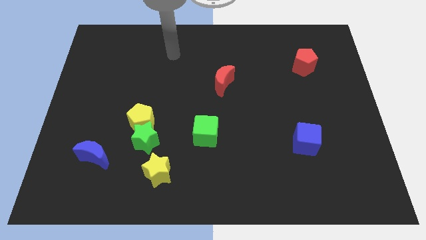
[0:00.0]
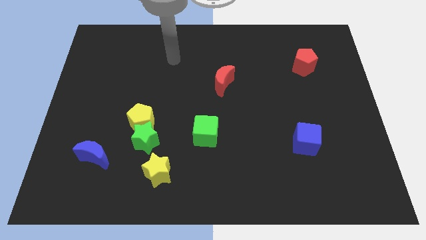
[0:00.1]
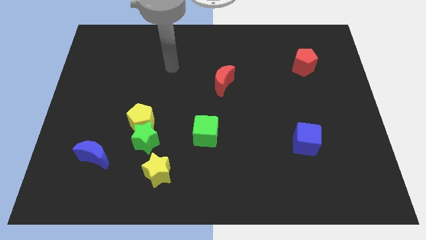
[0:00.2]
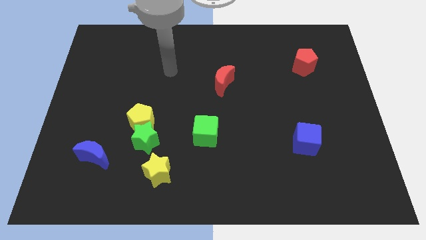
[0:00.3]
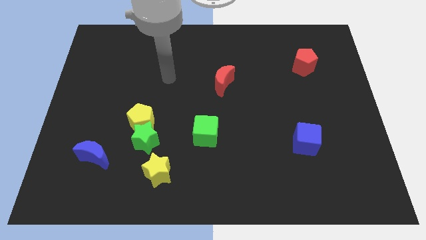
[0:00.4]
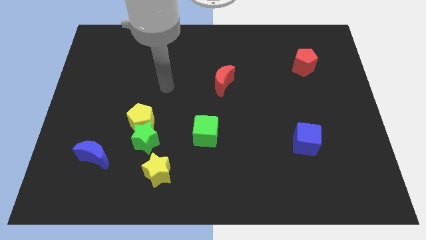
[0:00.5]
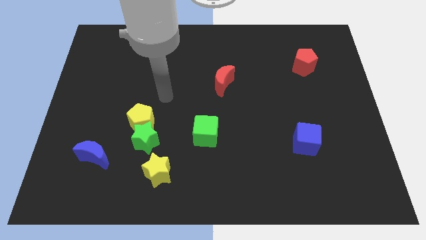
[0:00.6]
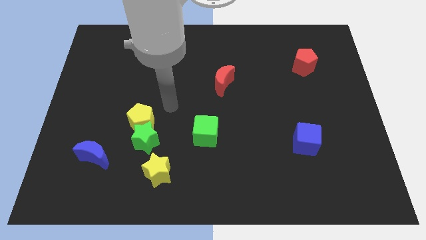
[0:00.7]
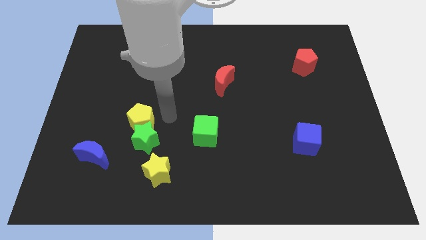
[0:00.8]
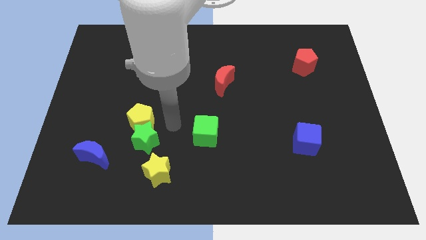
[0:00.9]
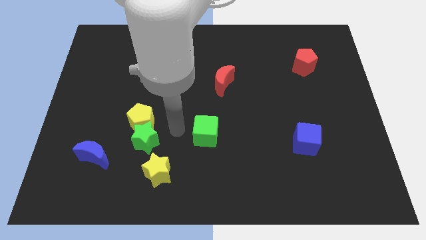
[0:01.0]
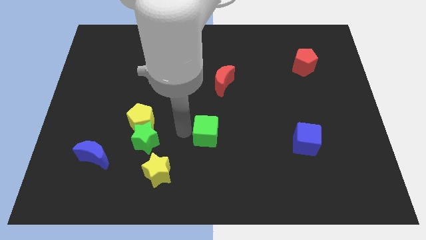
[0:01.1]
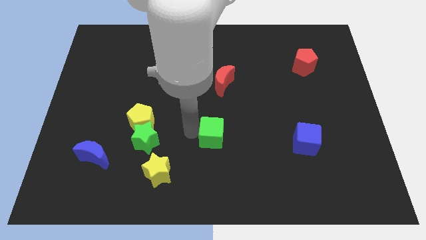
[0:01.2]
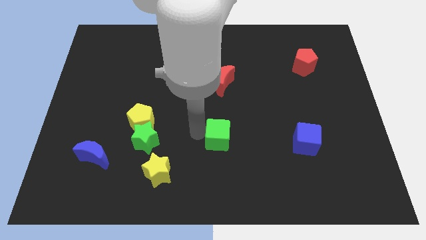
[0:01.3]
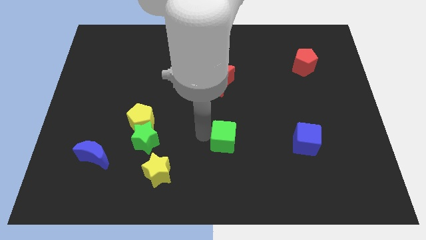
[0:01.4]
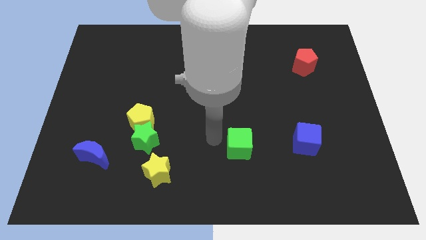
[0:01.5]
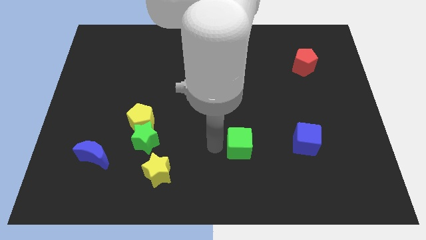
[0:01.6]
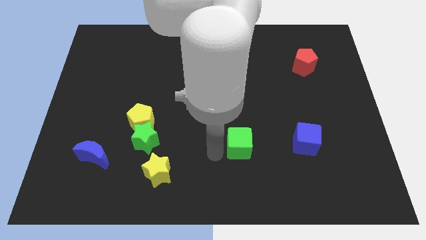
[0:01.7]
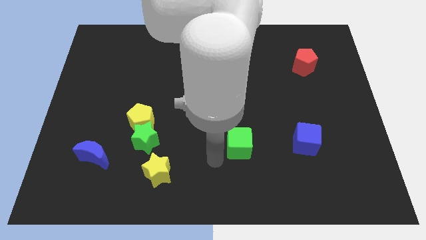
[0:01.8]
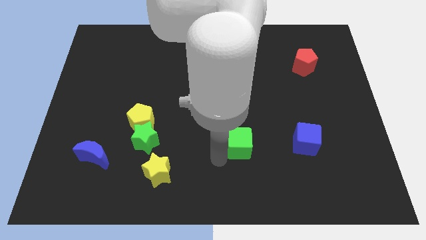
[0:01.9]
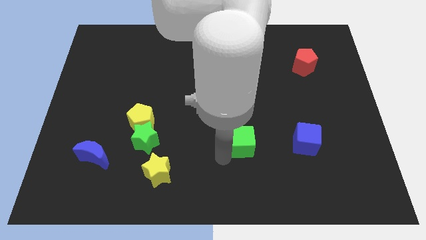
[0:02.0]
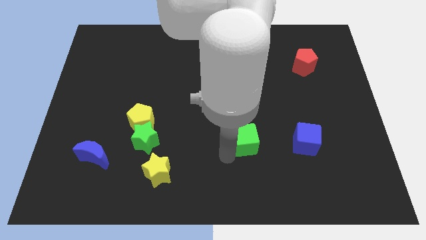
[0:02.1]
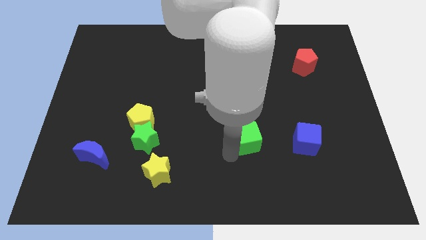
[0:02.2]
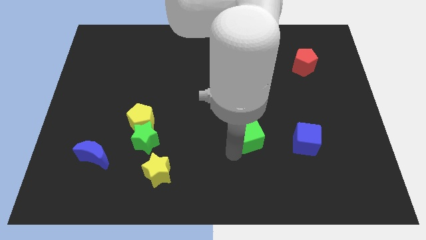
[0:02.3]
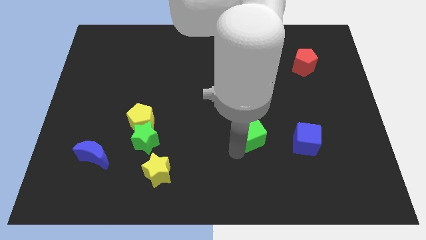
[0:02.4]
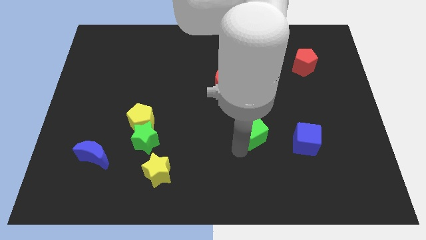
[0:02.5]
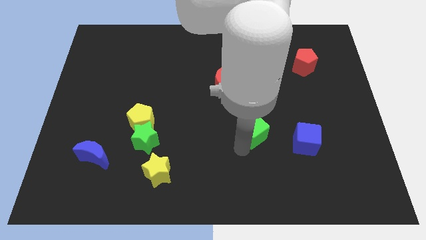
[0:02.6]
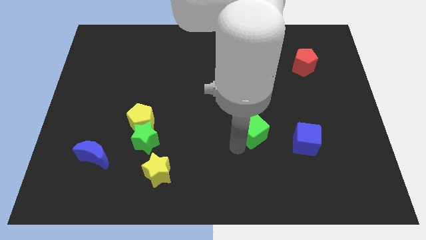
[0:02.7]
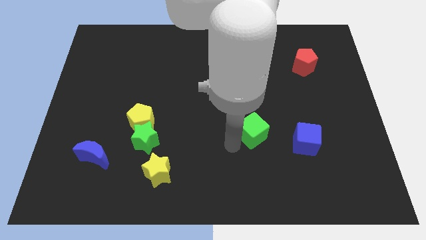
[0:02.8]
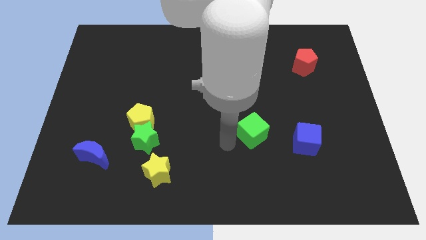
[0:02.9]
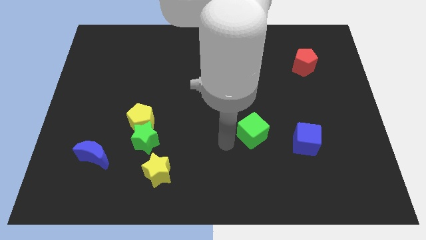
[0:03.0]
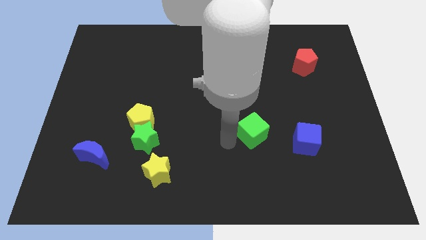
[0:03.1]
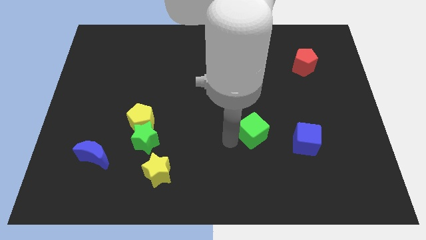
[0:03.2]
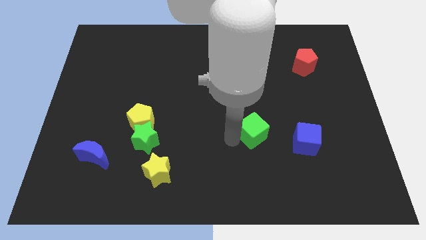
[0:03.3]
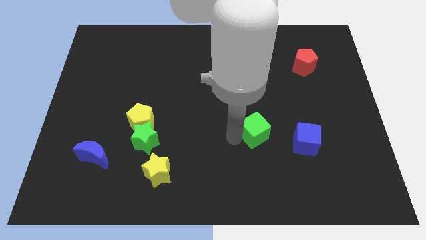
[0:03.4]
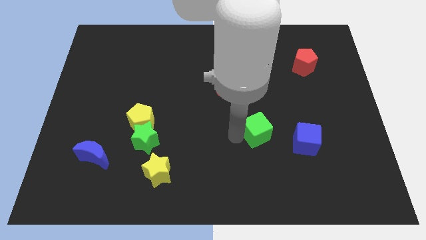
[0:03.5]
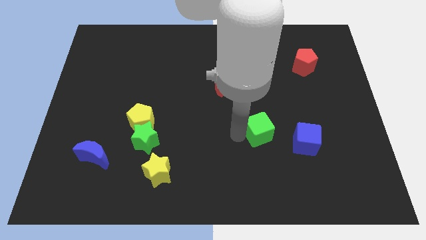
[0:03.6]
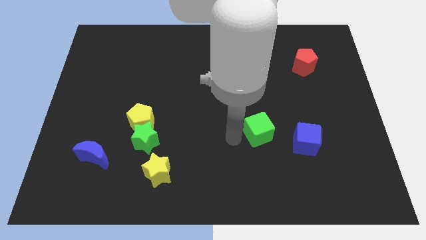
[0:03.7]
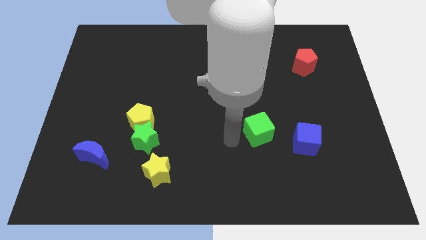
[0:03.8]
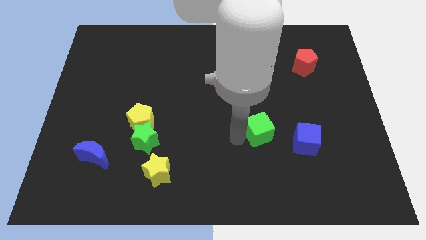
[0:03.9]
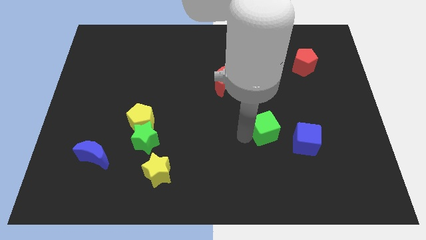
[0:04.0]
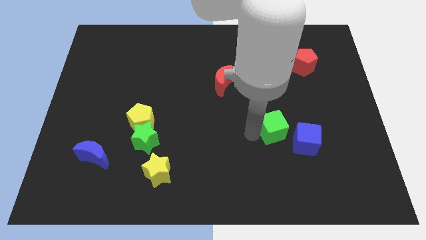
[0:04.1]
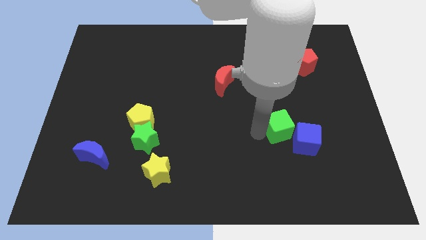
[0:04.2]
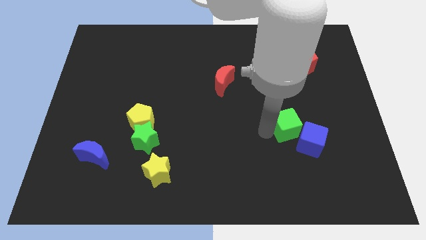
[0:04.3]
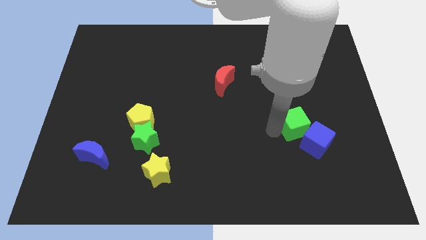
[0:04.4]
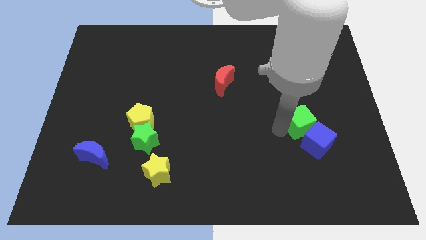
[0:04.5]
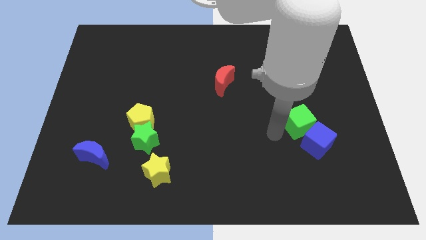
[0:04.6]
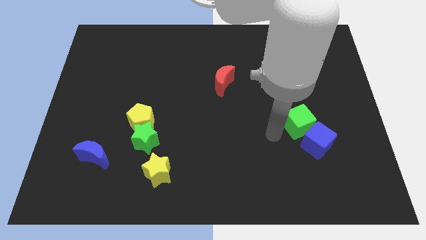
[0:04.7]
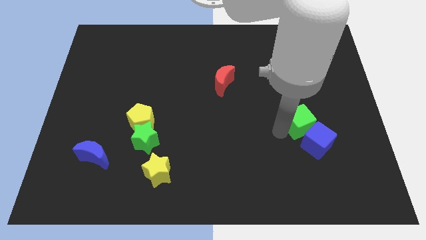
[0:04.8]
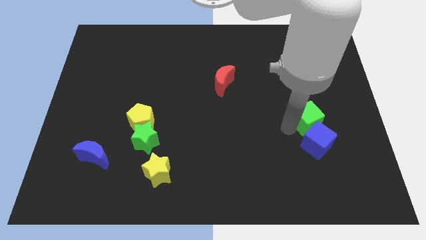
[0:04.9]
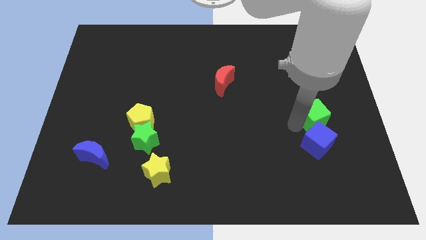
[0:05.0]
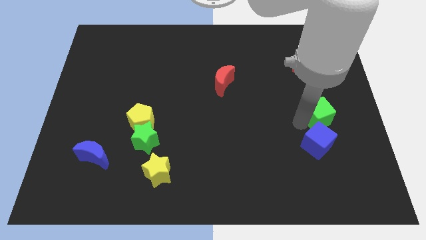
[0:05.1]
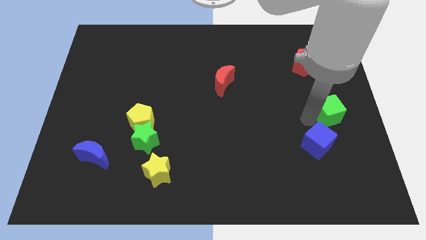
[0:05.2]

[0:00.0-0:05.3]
move the green cube to the right side of the board

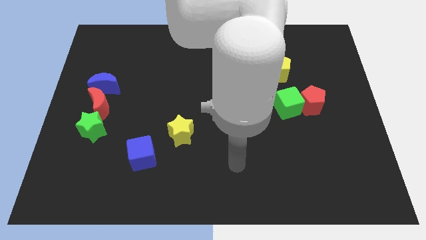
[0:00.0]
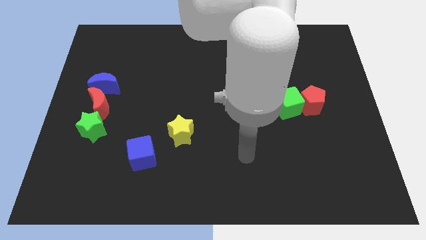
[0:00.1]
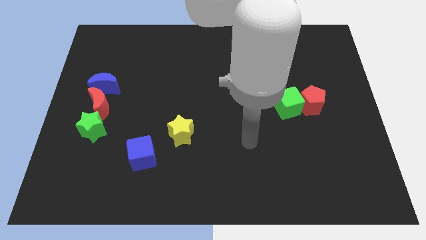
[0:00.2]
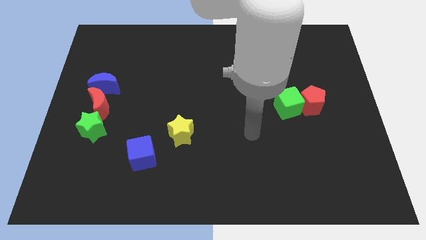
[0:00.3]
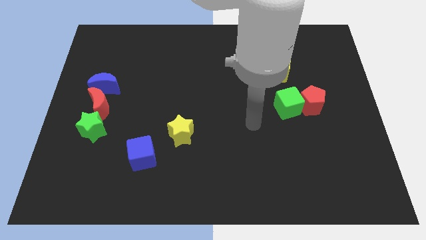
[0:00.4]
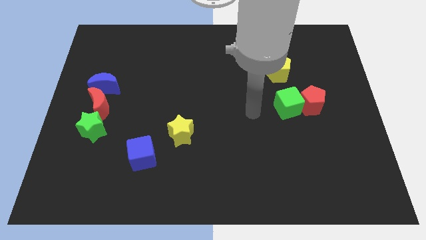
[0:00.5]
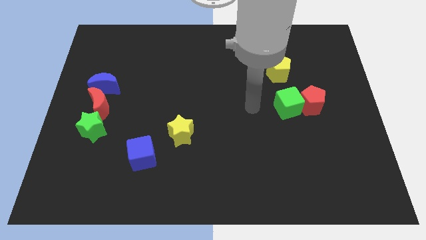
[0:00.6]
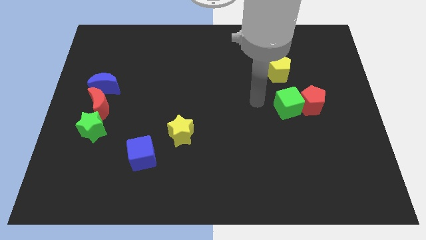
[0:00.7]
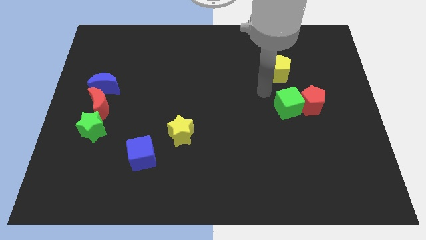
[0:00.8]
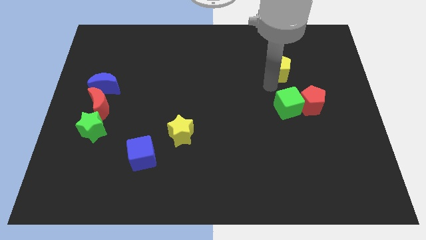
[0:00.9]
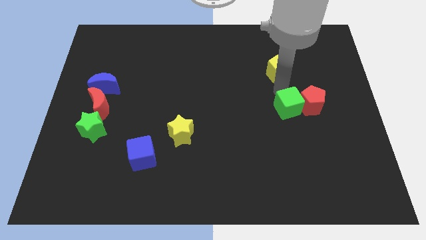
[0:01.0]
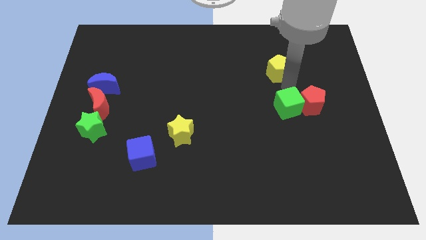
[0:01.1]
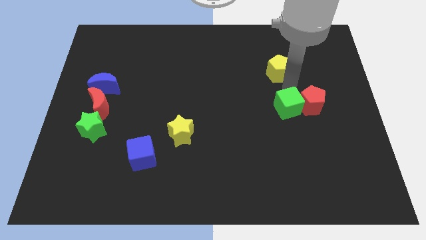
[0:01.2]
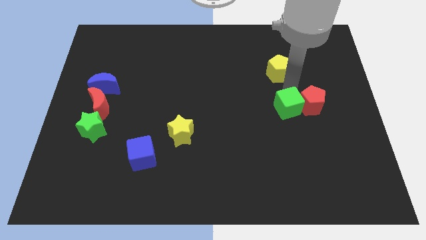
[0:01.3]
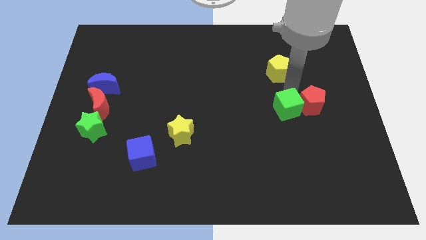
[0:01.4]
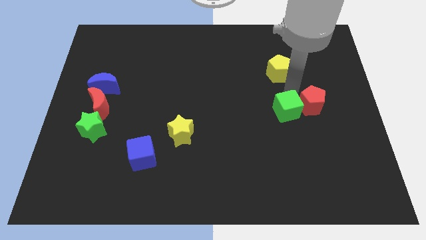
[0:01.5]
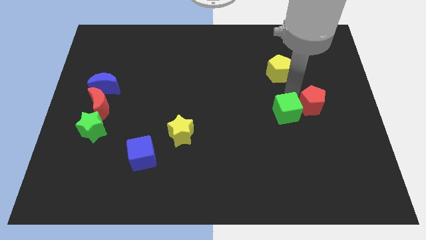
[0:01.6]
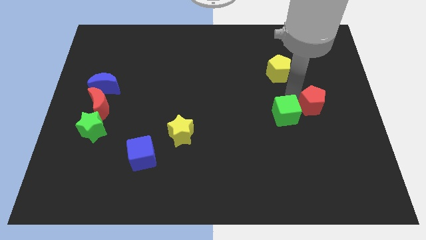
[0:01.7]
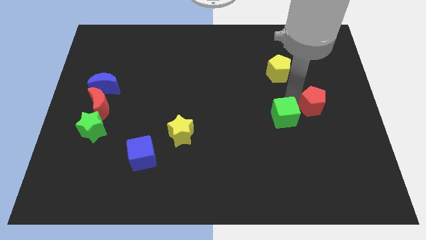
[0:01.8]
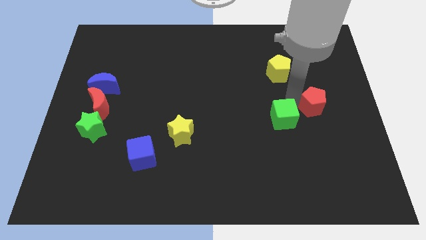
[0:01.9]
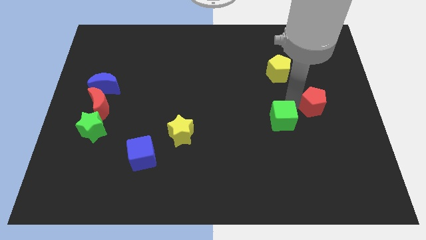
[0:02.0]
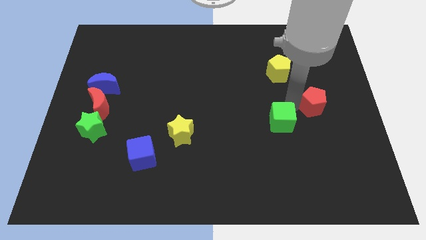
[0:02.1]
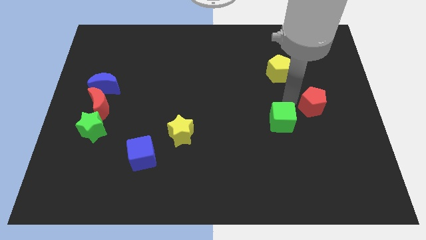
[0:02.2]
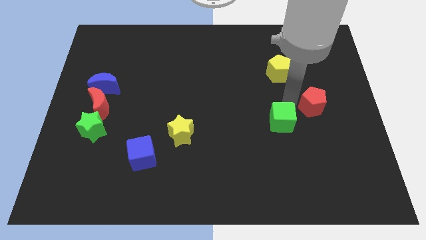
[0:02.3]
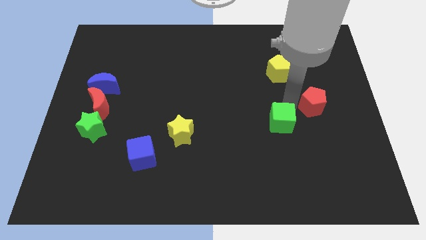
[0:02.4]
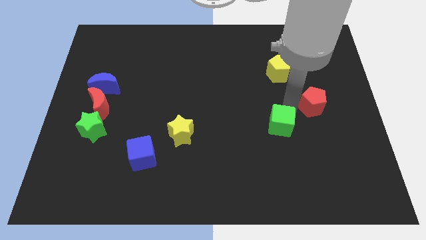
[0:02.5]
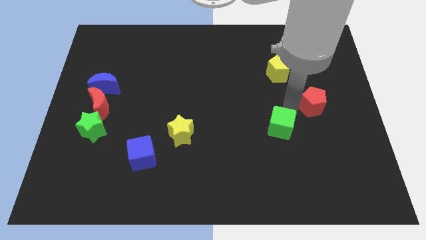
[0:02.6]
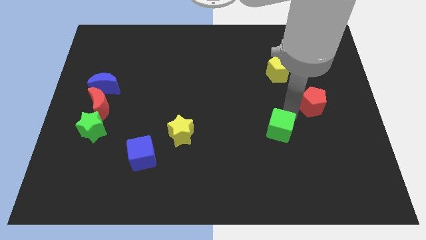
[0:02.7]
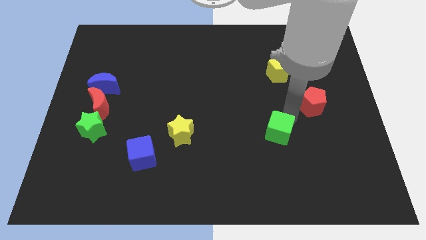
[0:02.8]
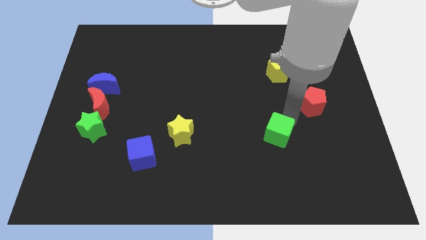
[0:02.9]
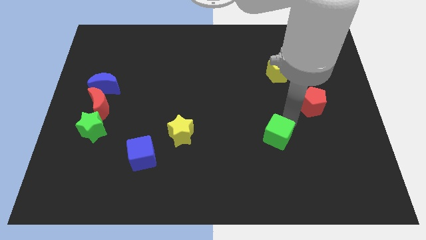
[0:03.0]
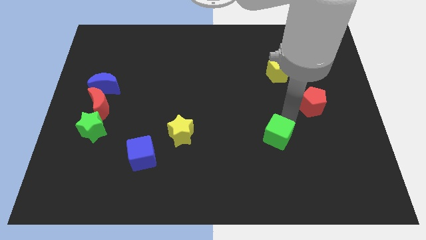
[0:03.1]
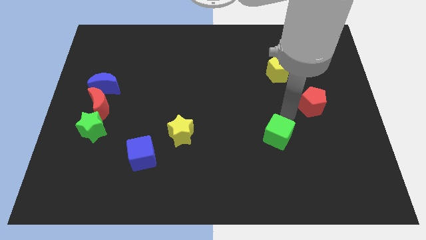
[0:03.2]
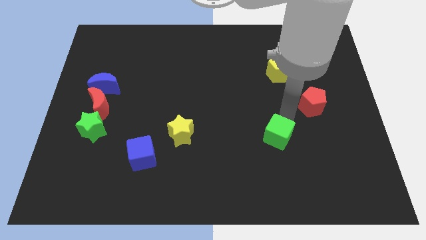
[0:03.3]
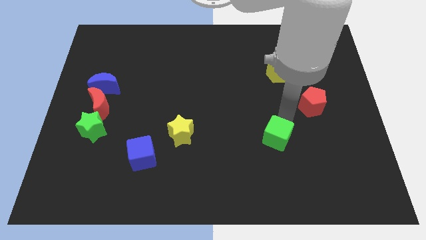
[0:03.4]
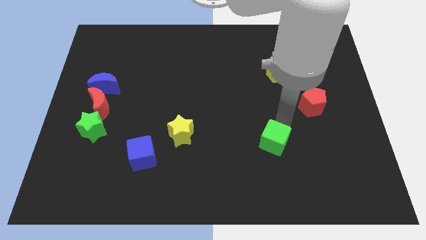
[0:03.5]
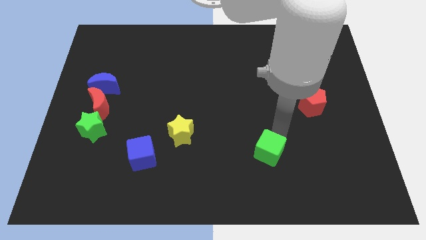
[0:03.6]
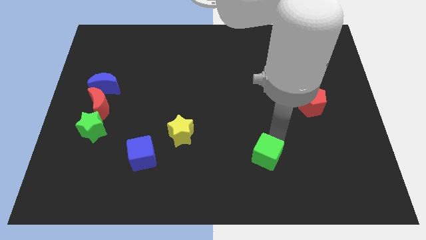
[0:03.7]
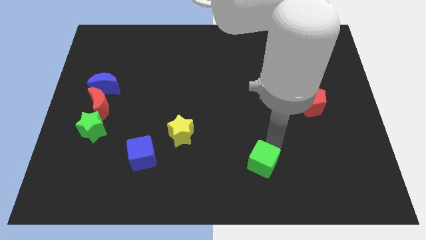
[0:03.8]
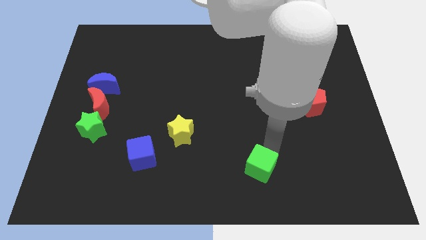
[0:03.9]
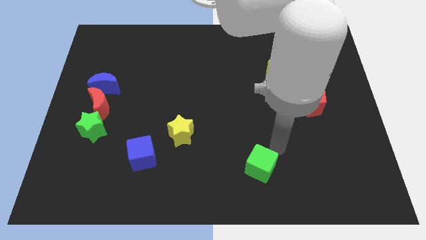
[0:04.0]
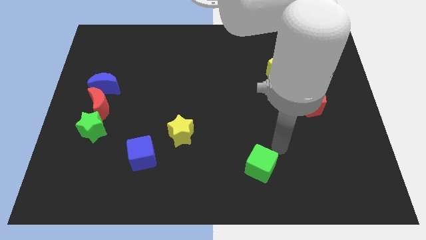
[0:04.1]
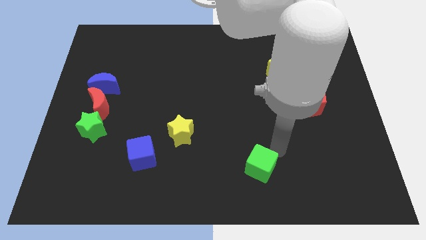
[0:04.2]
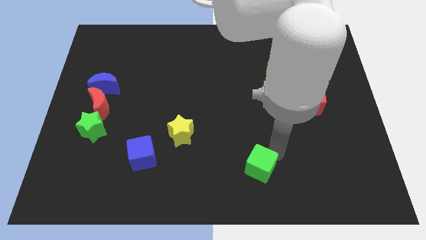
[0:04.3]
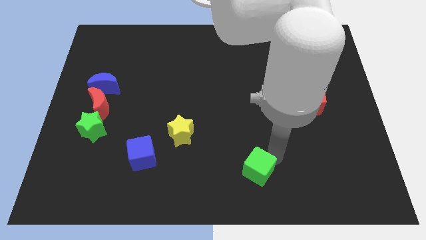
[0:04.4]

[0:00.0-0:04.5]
move the green cube to the bottom
